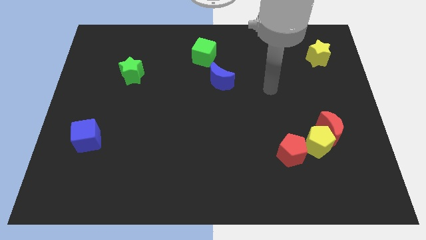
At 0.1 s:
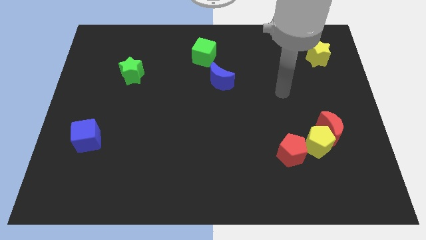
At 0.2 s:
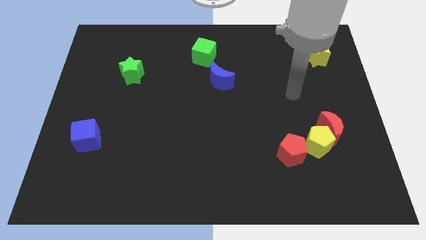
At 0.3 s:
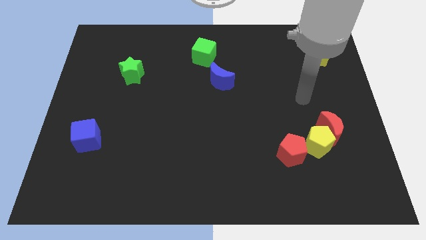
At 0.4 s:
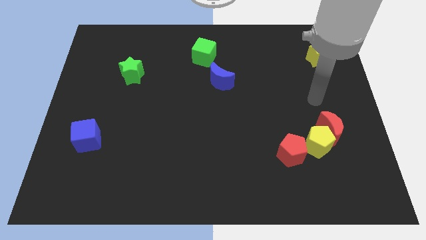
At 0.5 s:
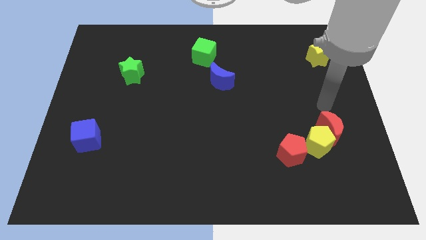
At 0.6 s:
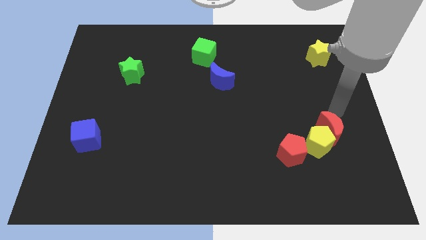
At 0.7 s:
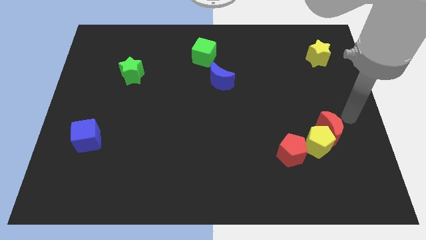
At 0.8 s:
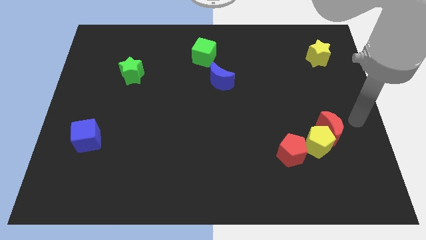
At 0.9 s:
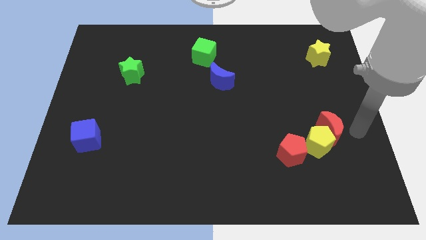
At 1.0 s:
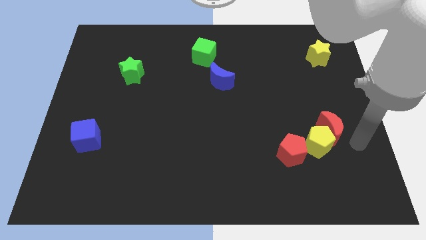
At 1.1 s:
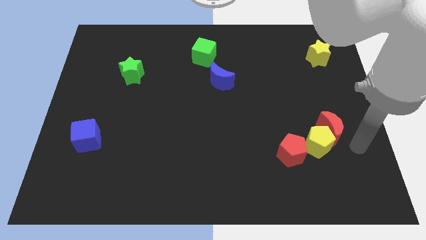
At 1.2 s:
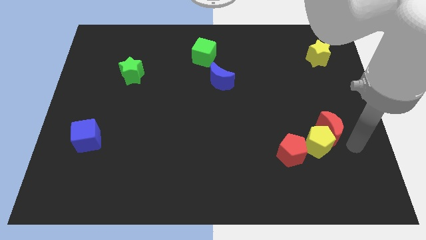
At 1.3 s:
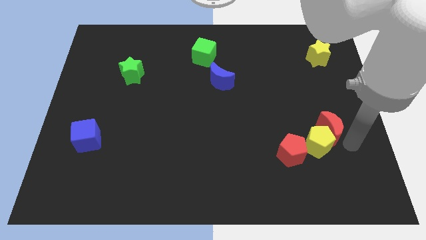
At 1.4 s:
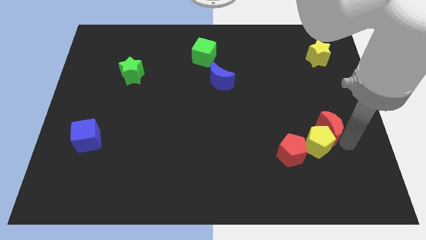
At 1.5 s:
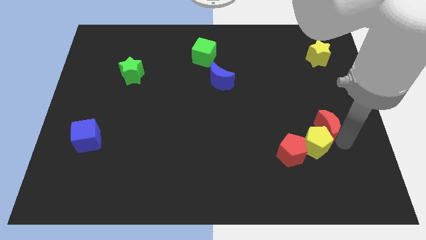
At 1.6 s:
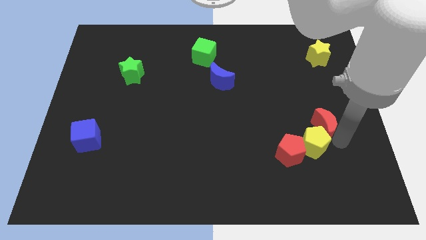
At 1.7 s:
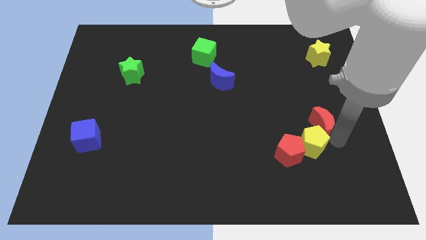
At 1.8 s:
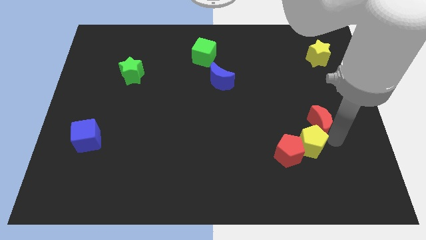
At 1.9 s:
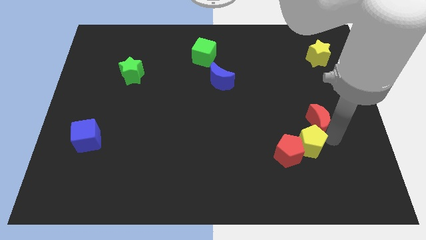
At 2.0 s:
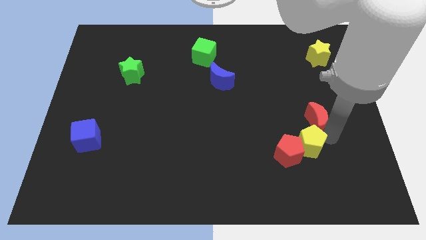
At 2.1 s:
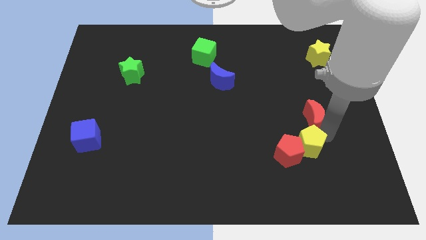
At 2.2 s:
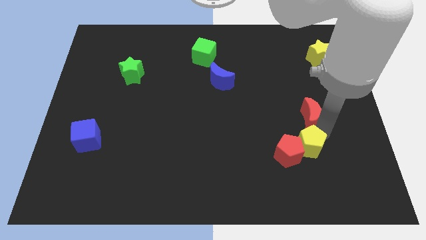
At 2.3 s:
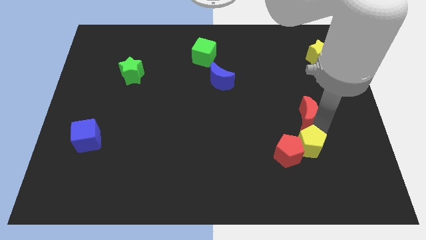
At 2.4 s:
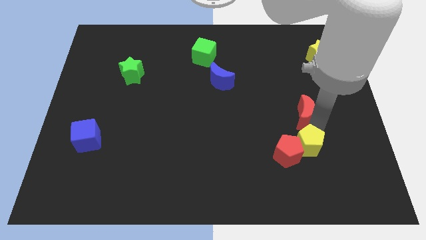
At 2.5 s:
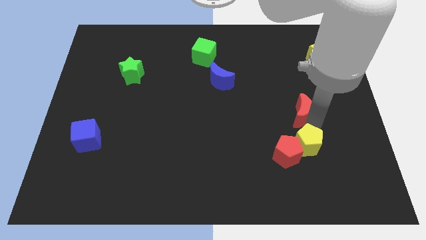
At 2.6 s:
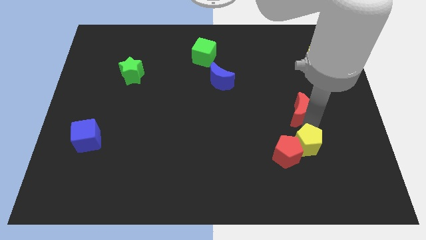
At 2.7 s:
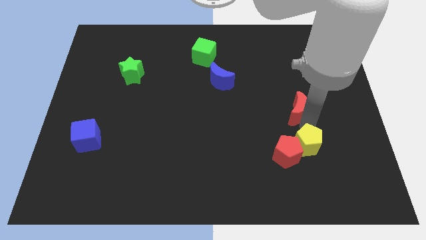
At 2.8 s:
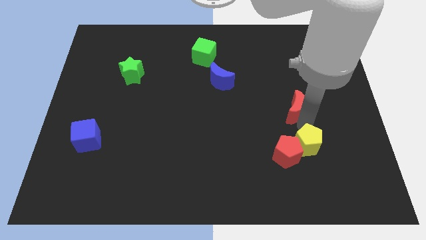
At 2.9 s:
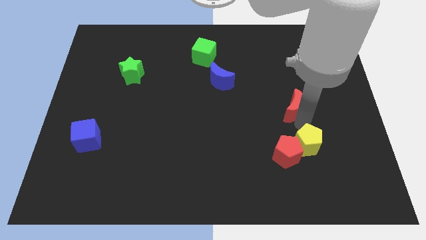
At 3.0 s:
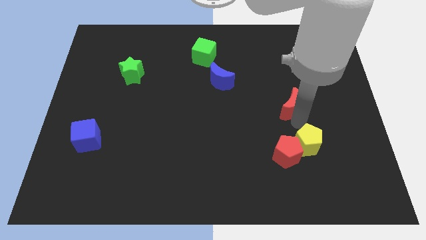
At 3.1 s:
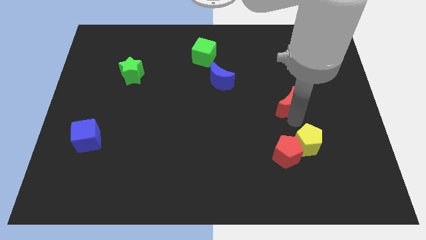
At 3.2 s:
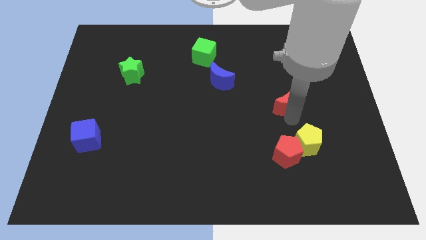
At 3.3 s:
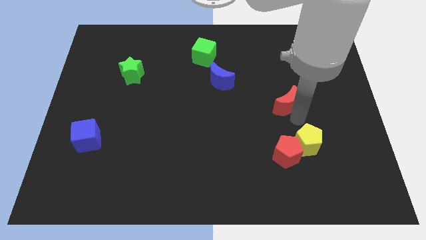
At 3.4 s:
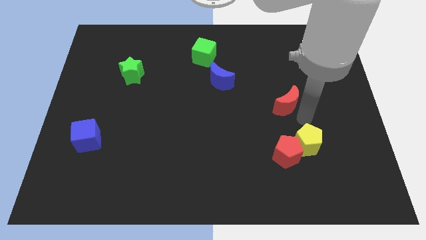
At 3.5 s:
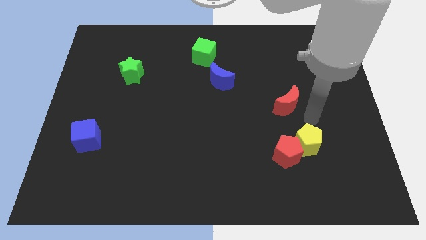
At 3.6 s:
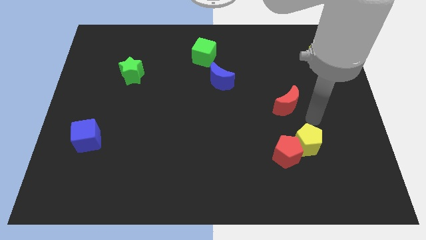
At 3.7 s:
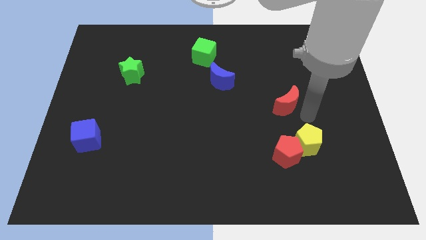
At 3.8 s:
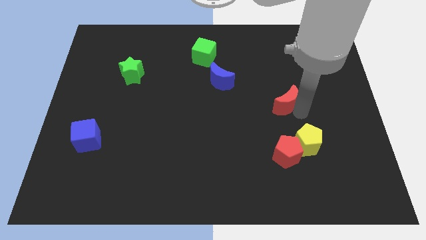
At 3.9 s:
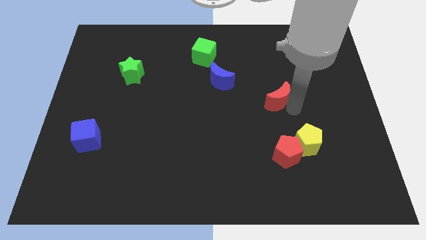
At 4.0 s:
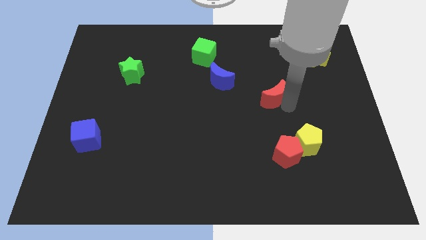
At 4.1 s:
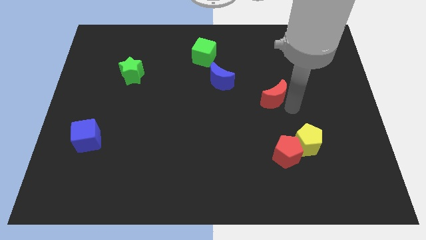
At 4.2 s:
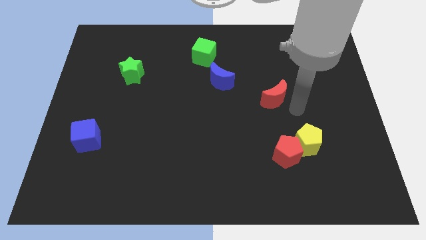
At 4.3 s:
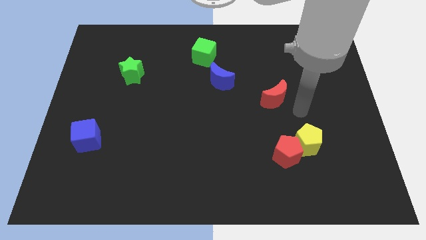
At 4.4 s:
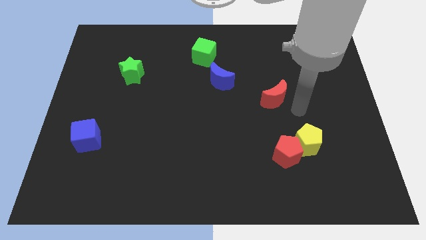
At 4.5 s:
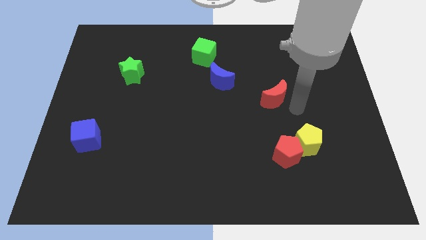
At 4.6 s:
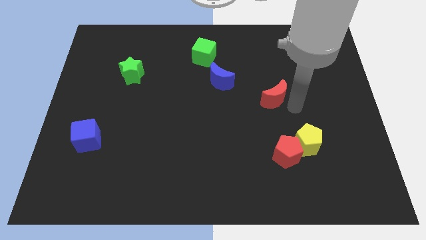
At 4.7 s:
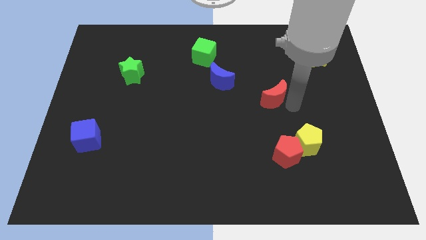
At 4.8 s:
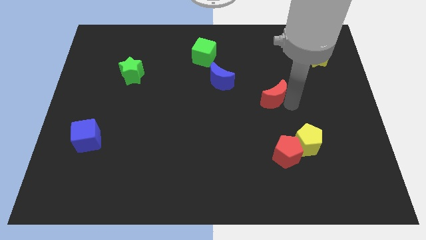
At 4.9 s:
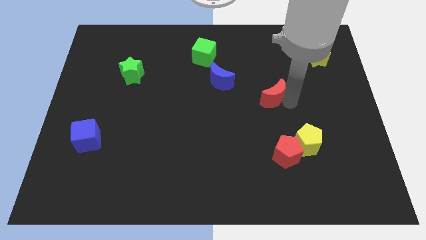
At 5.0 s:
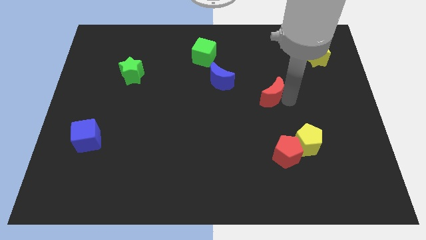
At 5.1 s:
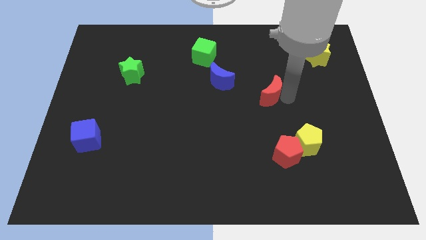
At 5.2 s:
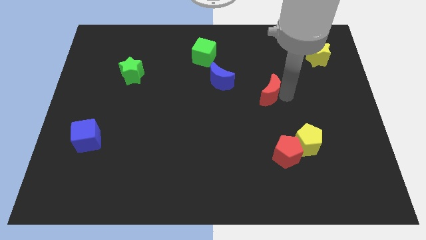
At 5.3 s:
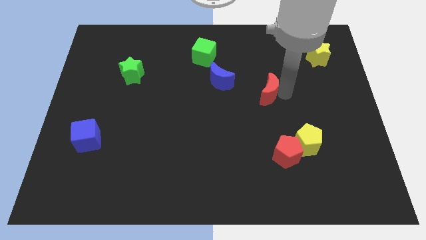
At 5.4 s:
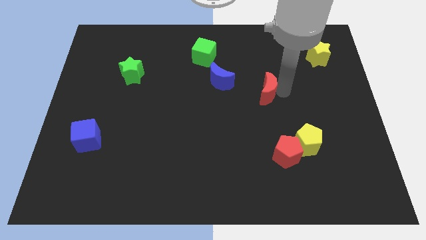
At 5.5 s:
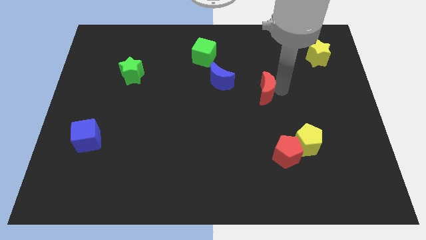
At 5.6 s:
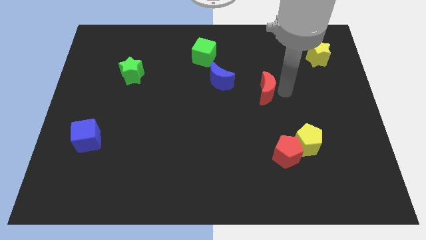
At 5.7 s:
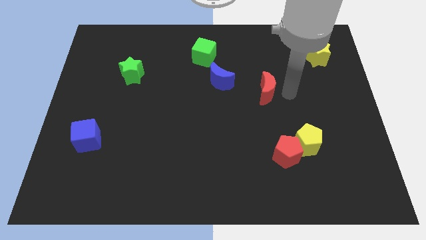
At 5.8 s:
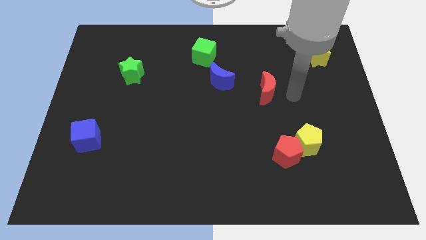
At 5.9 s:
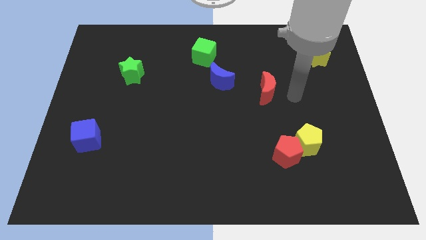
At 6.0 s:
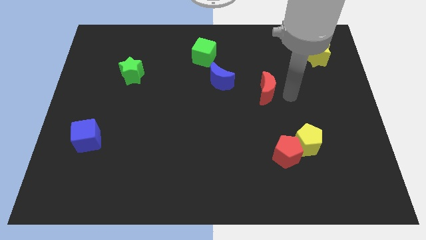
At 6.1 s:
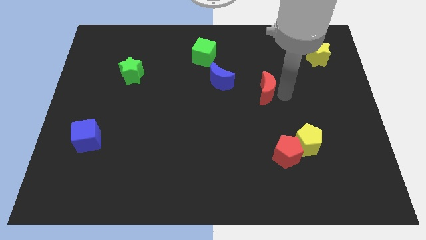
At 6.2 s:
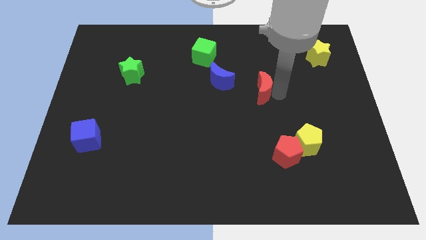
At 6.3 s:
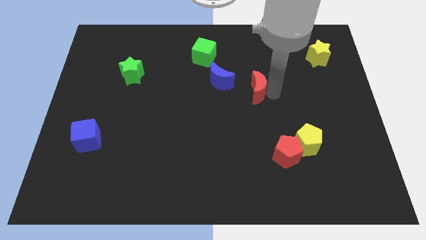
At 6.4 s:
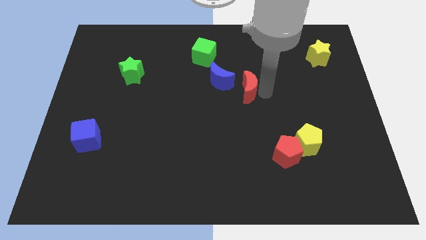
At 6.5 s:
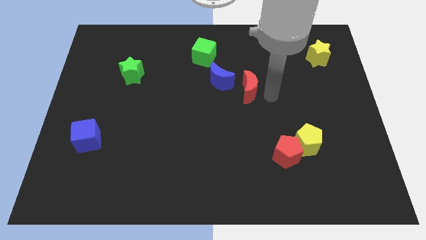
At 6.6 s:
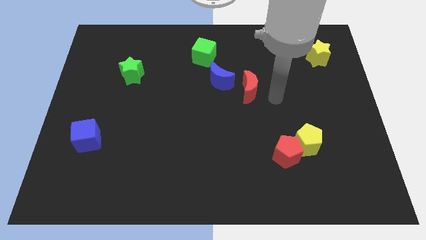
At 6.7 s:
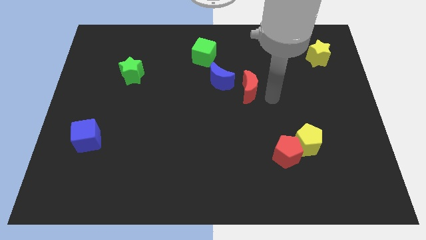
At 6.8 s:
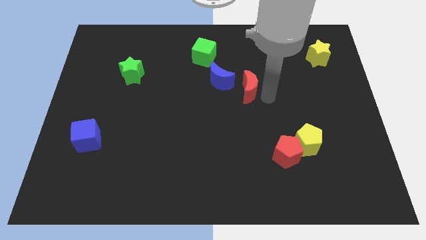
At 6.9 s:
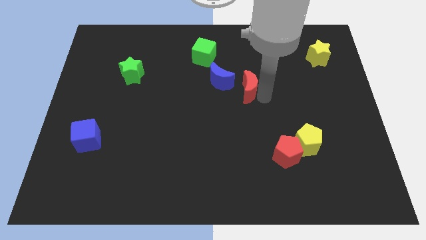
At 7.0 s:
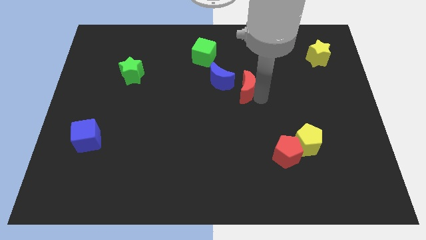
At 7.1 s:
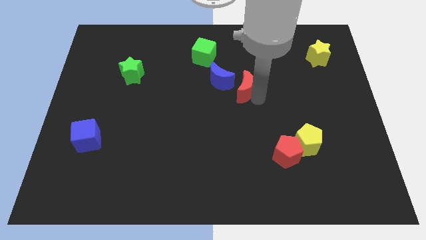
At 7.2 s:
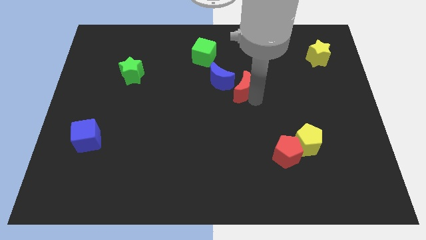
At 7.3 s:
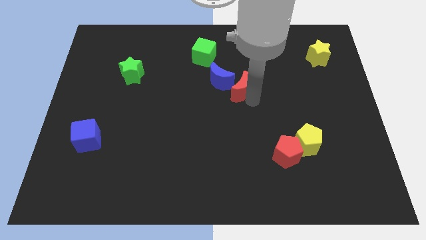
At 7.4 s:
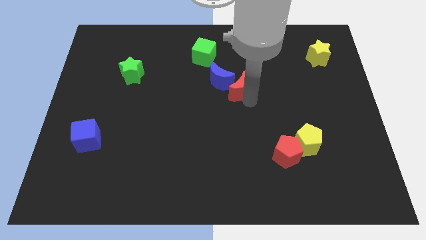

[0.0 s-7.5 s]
put the red moon next to the blue moon
